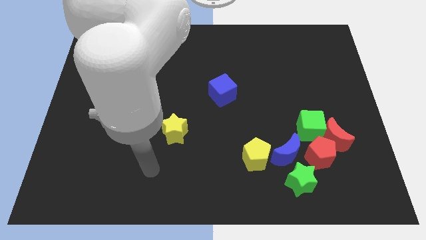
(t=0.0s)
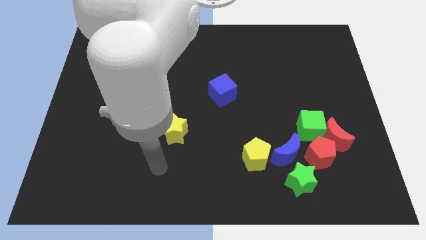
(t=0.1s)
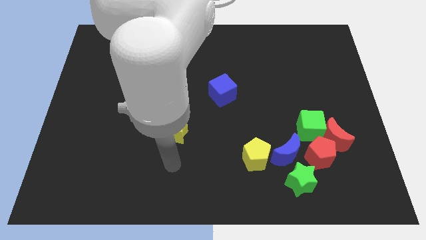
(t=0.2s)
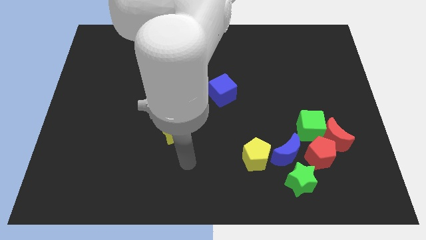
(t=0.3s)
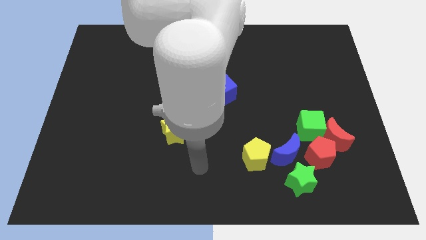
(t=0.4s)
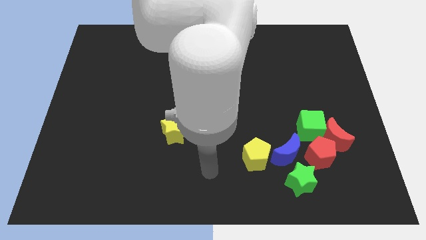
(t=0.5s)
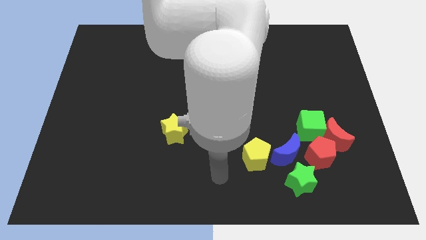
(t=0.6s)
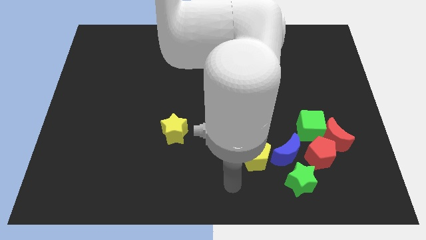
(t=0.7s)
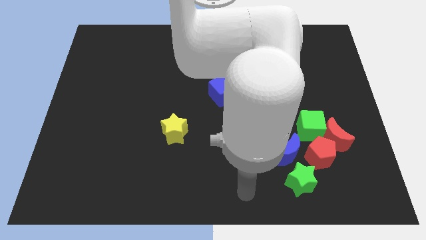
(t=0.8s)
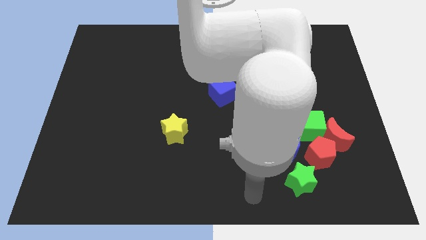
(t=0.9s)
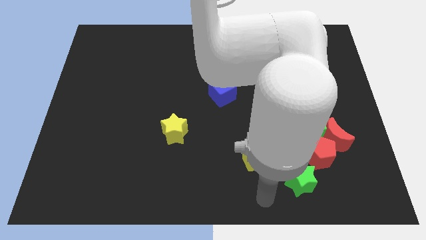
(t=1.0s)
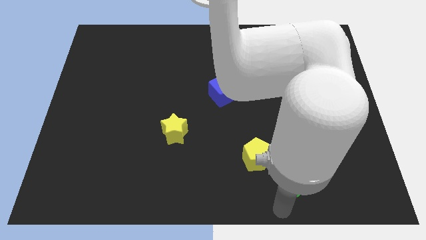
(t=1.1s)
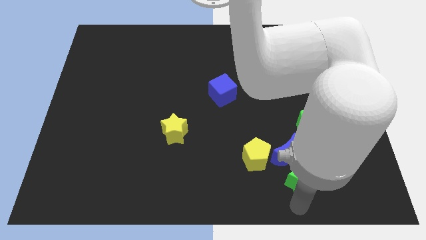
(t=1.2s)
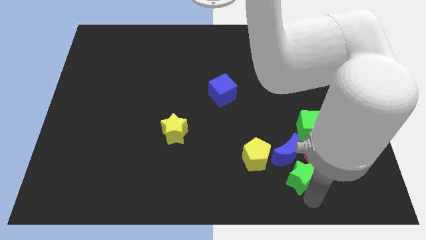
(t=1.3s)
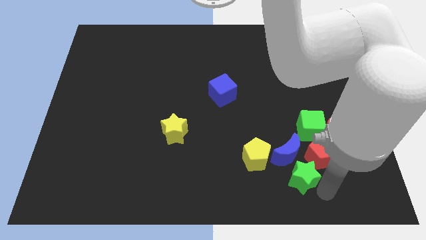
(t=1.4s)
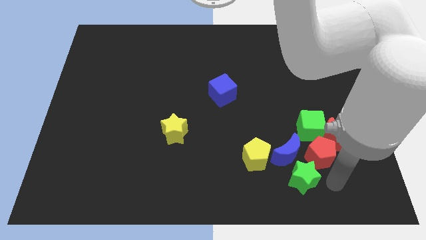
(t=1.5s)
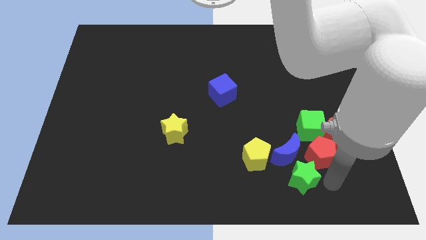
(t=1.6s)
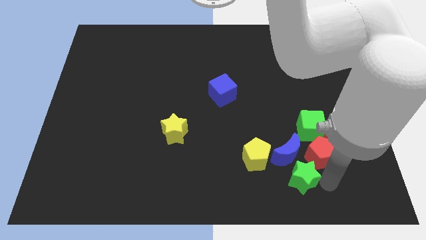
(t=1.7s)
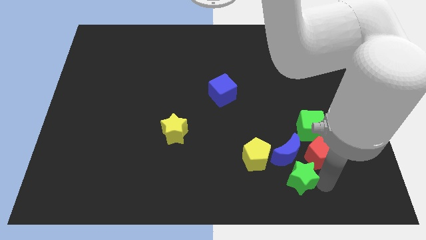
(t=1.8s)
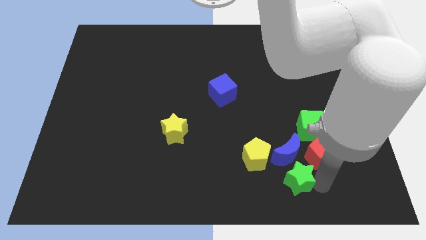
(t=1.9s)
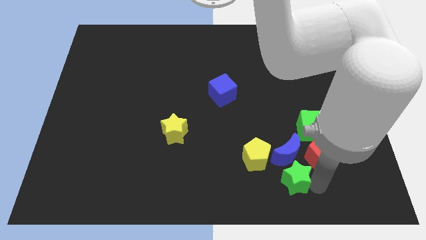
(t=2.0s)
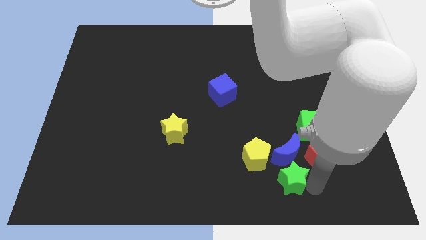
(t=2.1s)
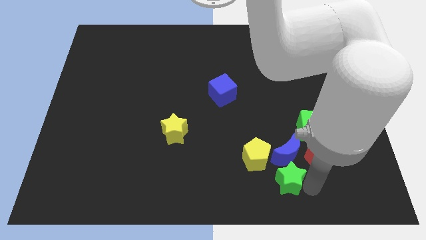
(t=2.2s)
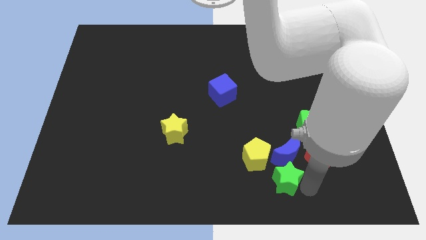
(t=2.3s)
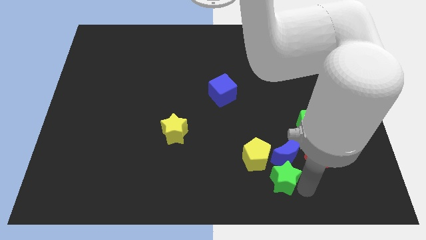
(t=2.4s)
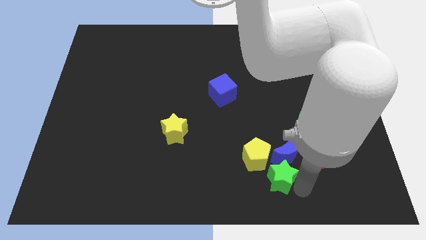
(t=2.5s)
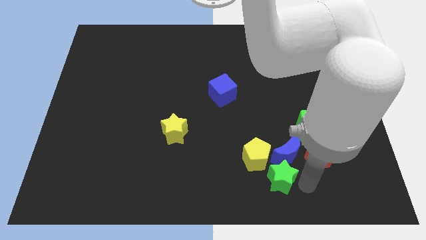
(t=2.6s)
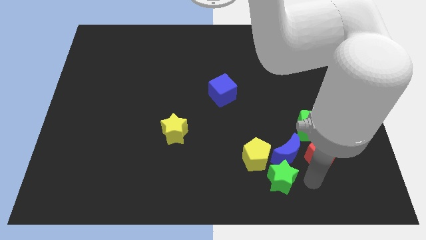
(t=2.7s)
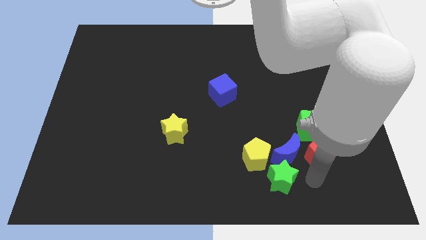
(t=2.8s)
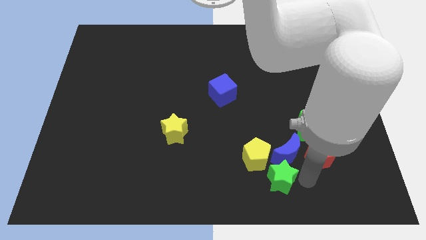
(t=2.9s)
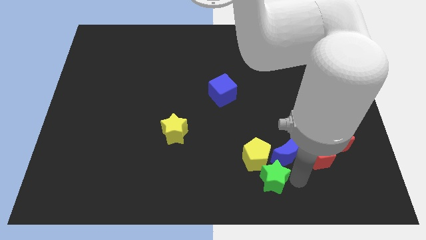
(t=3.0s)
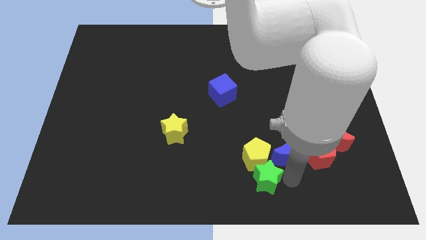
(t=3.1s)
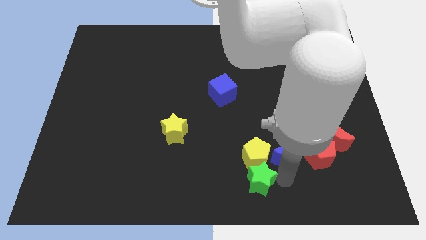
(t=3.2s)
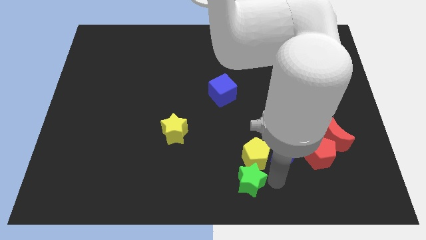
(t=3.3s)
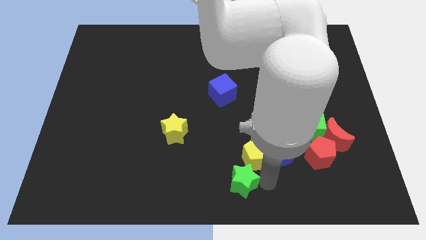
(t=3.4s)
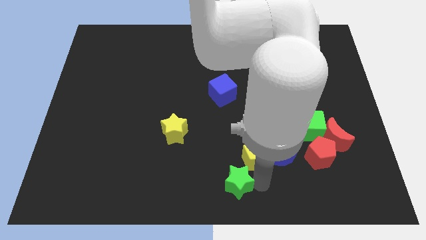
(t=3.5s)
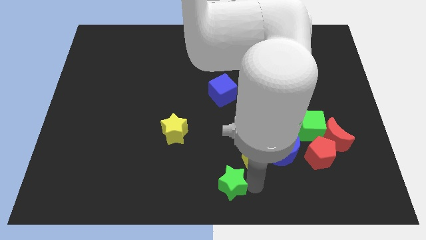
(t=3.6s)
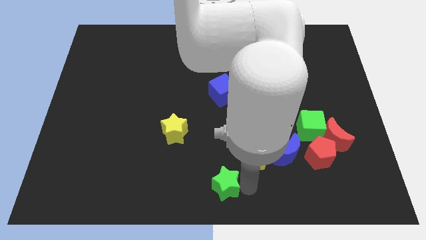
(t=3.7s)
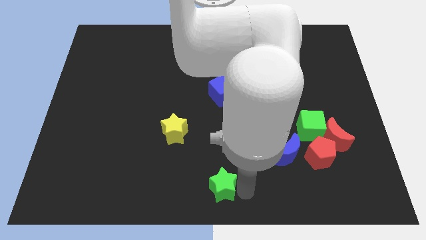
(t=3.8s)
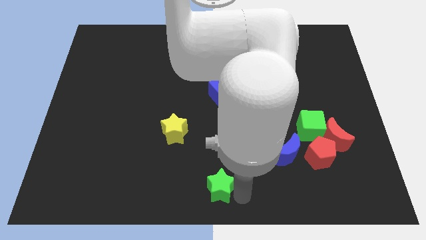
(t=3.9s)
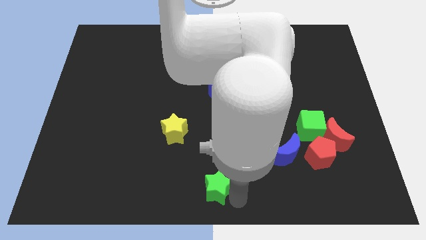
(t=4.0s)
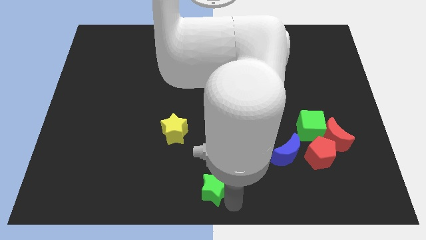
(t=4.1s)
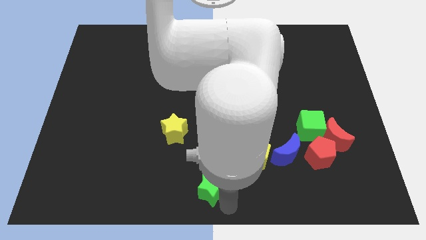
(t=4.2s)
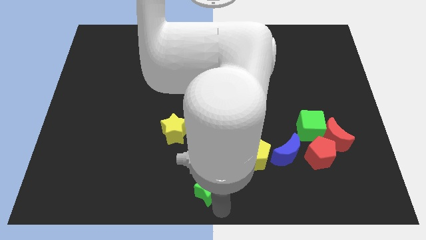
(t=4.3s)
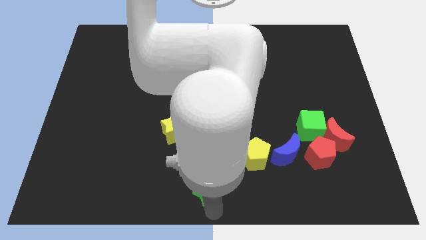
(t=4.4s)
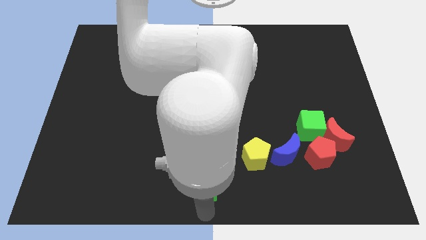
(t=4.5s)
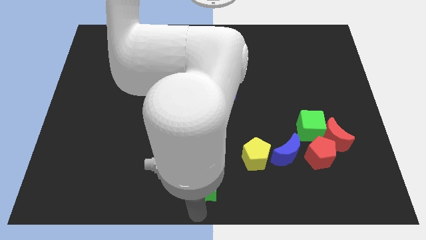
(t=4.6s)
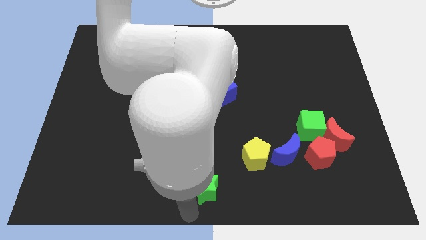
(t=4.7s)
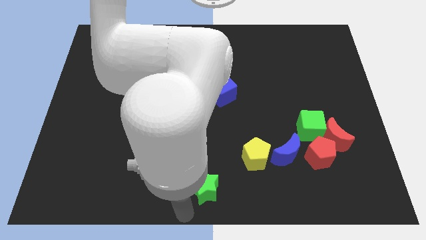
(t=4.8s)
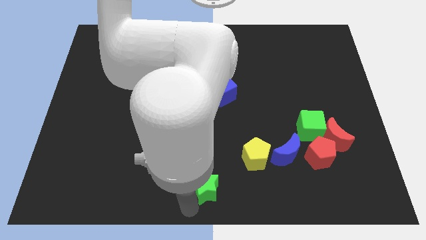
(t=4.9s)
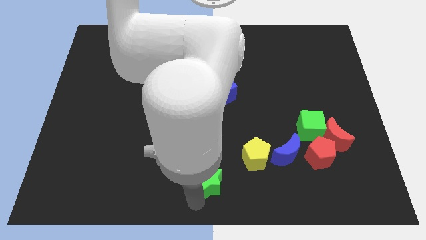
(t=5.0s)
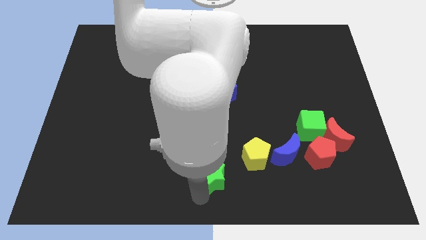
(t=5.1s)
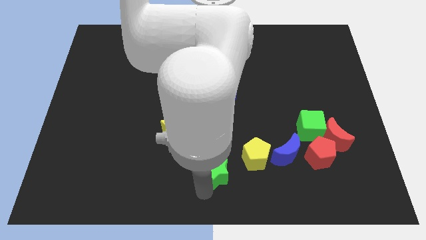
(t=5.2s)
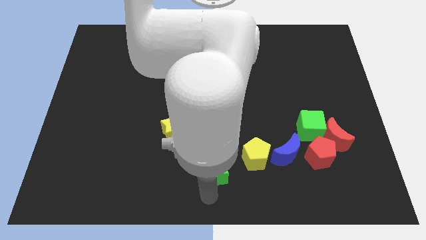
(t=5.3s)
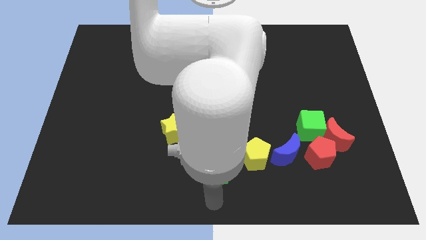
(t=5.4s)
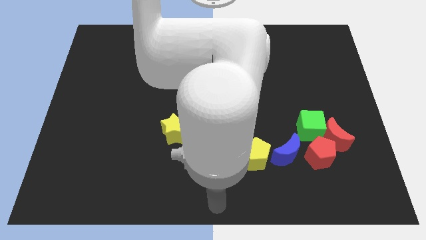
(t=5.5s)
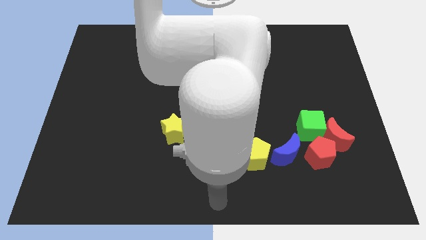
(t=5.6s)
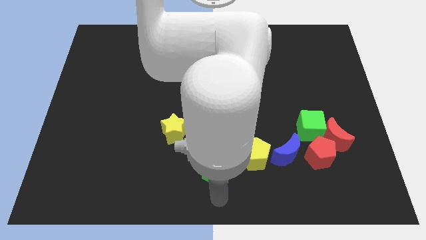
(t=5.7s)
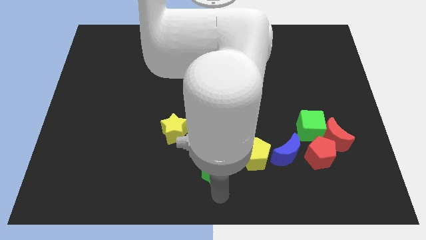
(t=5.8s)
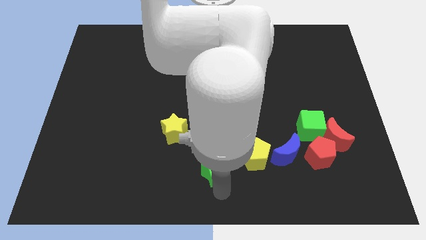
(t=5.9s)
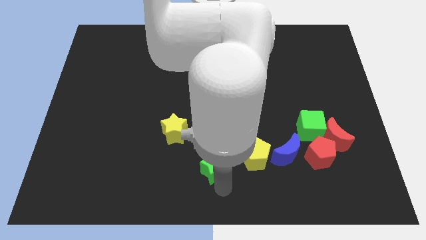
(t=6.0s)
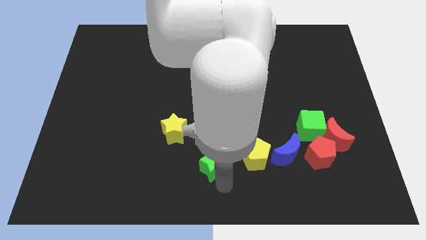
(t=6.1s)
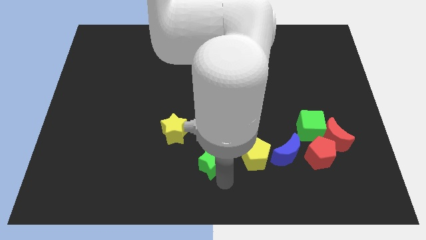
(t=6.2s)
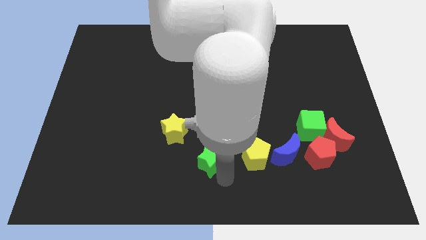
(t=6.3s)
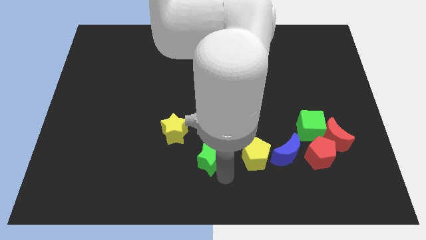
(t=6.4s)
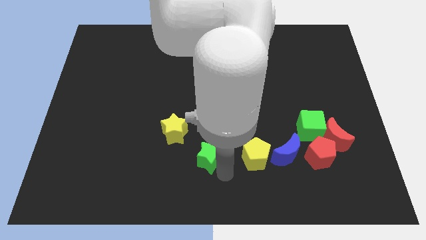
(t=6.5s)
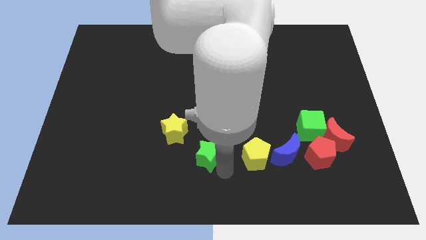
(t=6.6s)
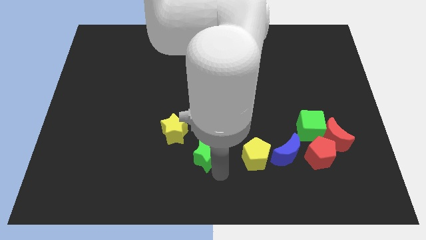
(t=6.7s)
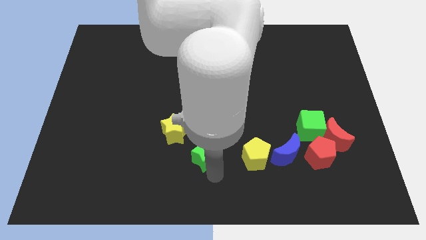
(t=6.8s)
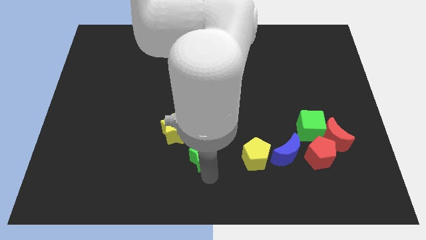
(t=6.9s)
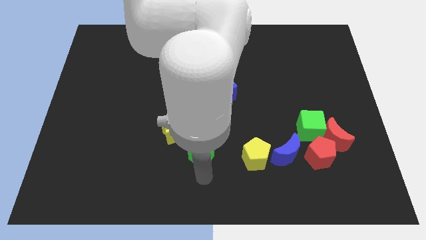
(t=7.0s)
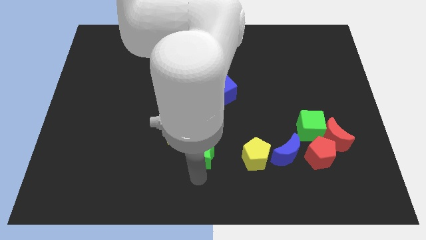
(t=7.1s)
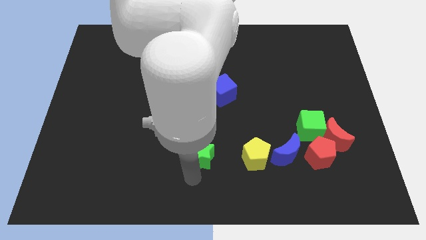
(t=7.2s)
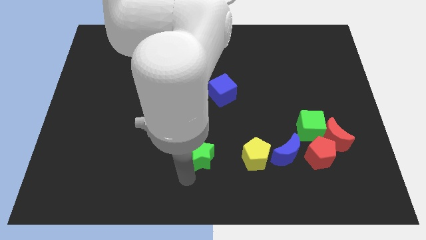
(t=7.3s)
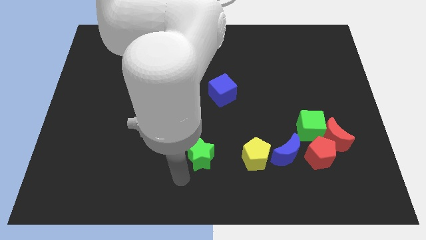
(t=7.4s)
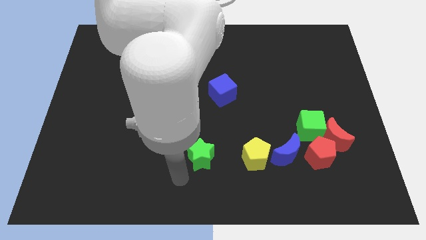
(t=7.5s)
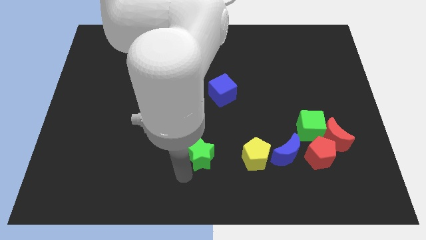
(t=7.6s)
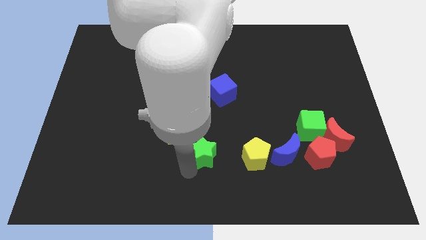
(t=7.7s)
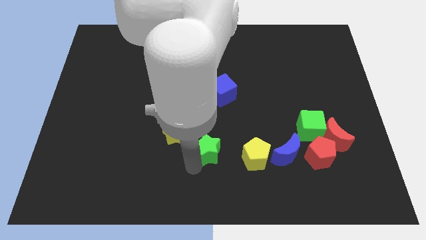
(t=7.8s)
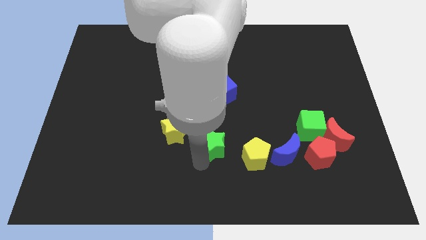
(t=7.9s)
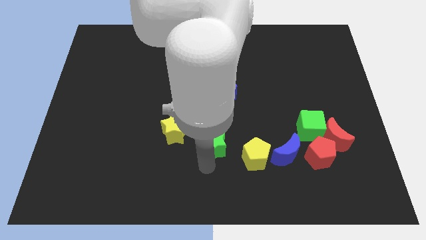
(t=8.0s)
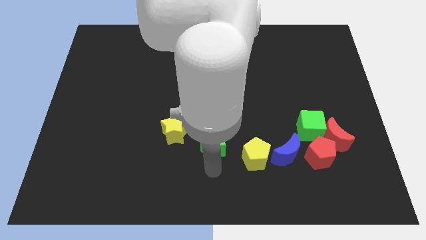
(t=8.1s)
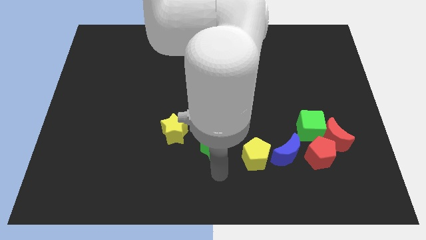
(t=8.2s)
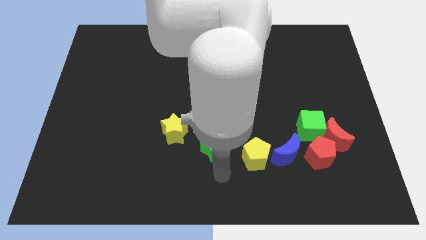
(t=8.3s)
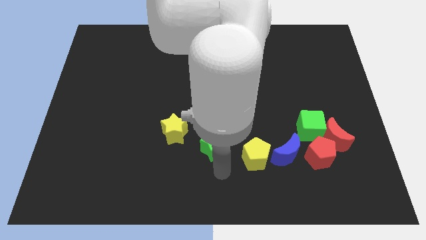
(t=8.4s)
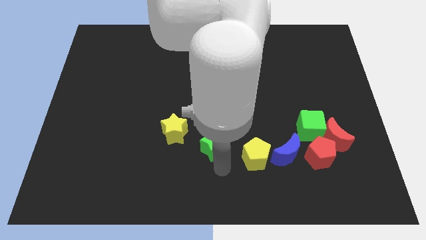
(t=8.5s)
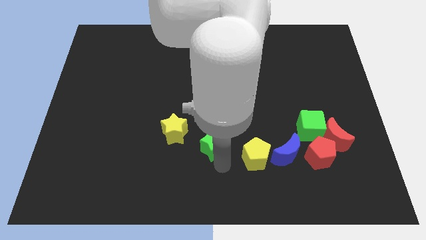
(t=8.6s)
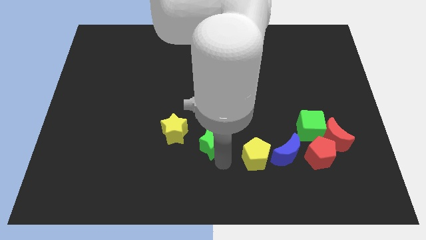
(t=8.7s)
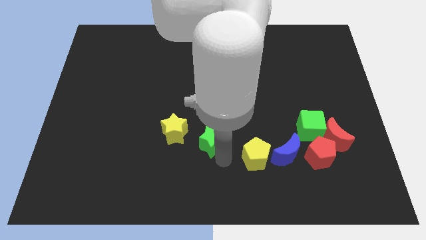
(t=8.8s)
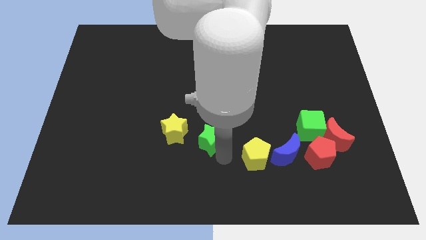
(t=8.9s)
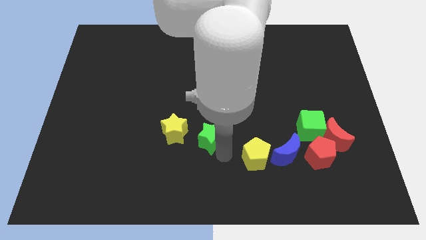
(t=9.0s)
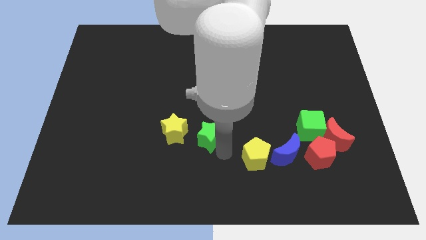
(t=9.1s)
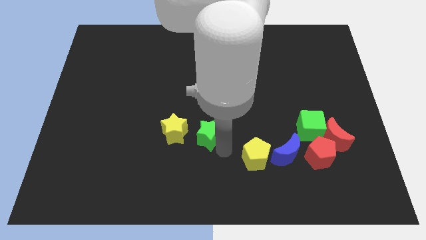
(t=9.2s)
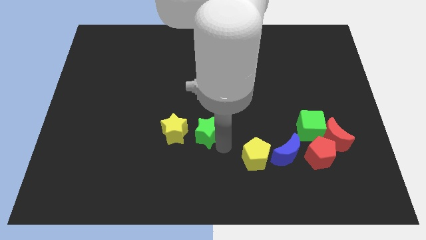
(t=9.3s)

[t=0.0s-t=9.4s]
push the green star upwards and then to the left
